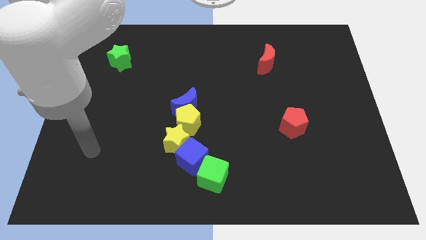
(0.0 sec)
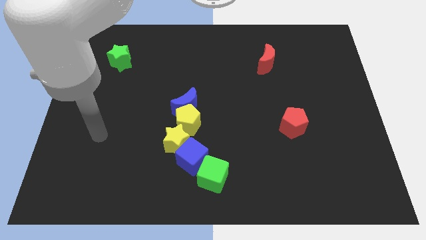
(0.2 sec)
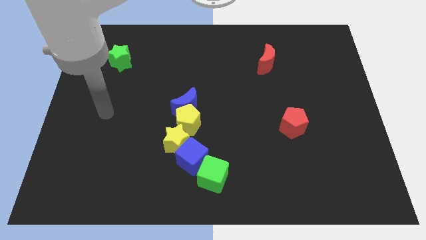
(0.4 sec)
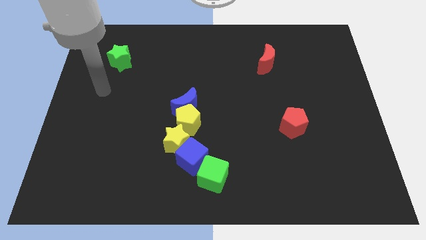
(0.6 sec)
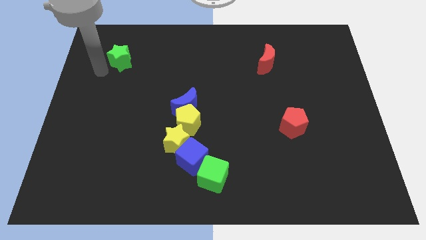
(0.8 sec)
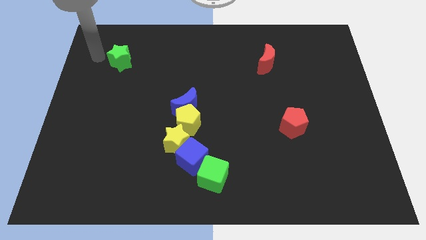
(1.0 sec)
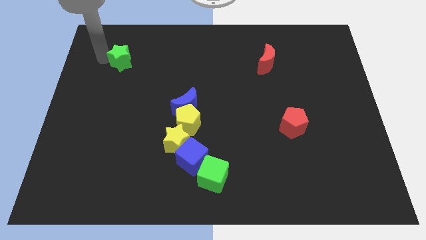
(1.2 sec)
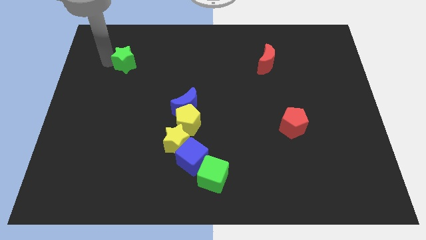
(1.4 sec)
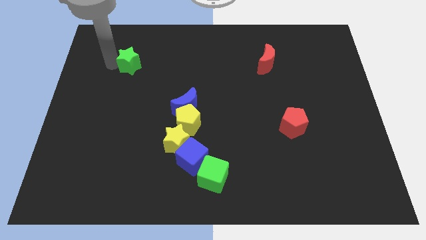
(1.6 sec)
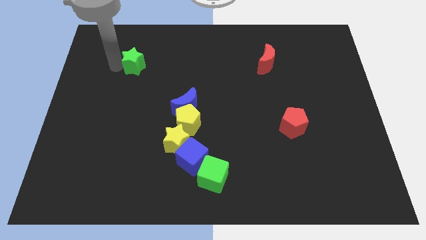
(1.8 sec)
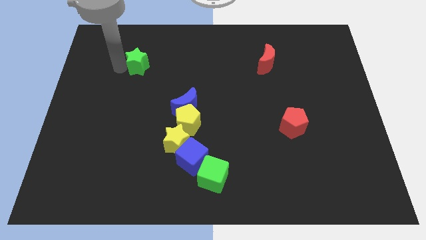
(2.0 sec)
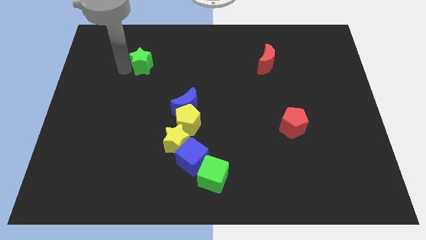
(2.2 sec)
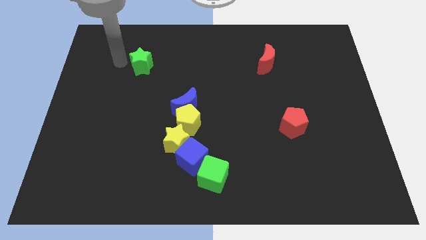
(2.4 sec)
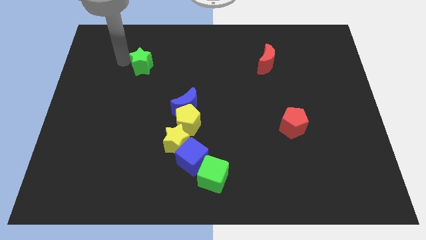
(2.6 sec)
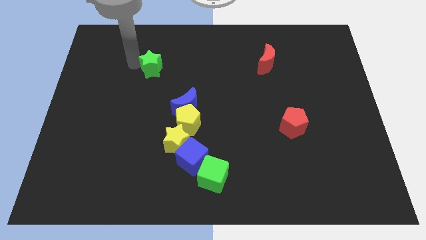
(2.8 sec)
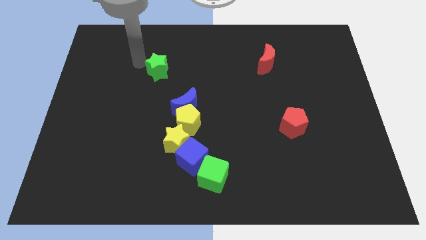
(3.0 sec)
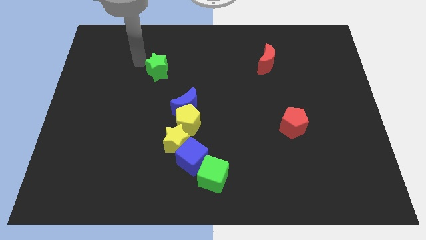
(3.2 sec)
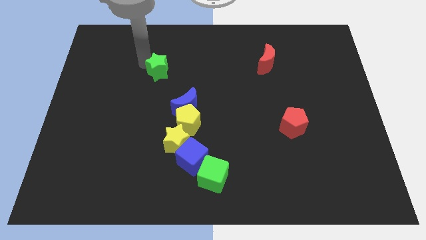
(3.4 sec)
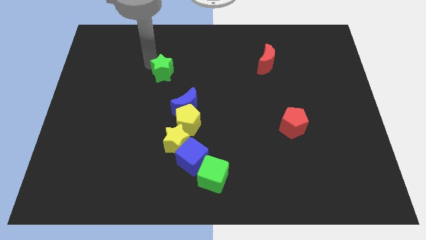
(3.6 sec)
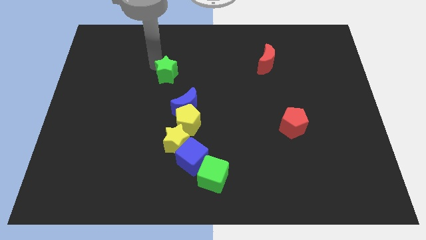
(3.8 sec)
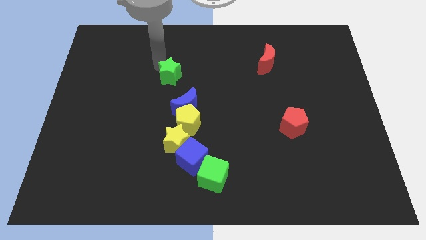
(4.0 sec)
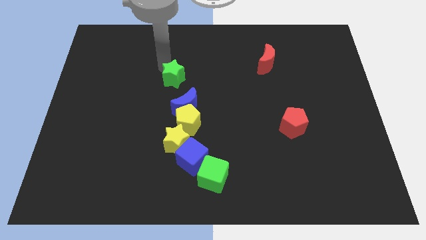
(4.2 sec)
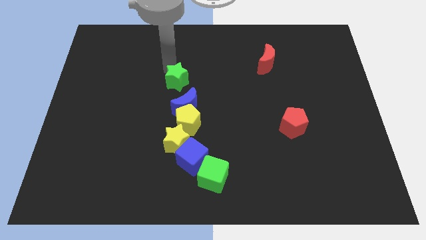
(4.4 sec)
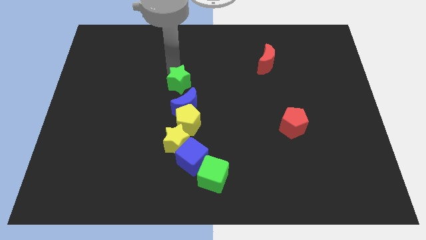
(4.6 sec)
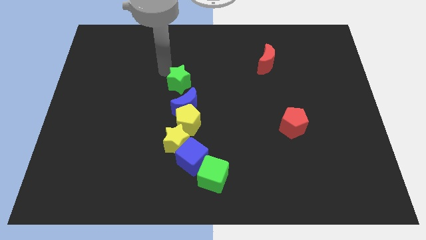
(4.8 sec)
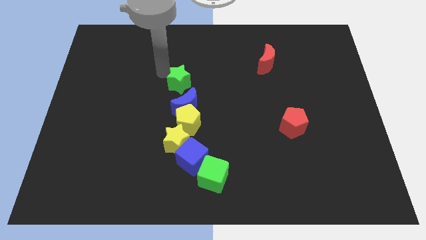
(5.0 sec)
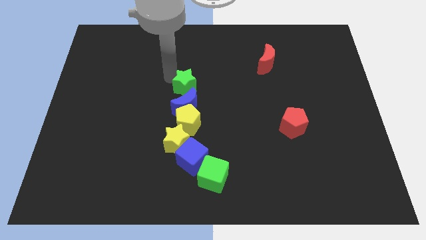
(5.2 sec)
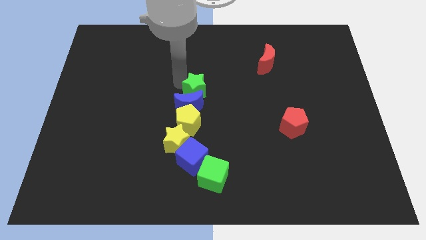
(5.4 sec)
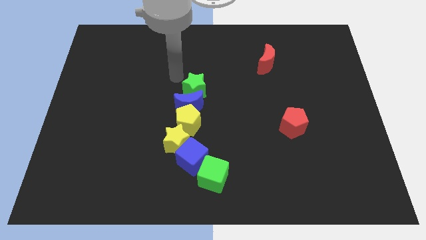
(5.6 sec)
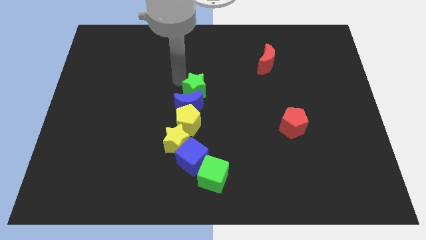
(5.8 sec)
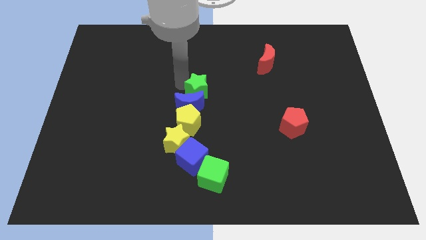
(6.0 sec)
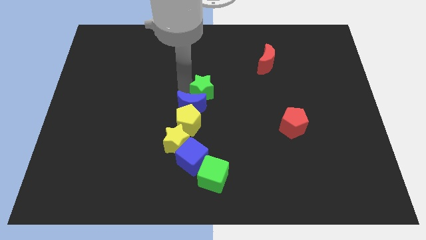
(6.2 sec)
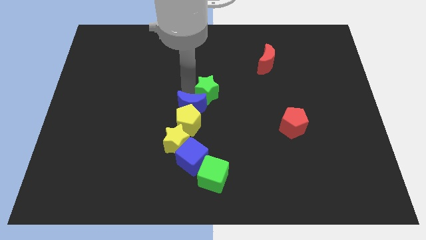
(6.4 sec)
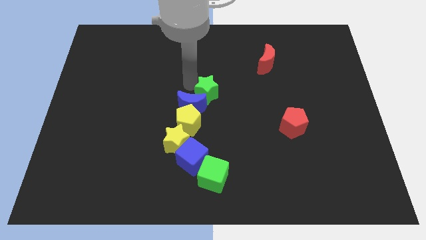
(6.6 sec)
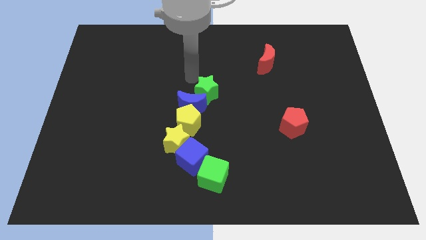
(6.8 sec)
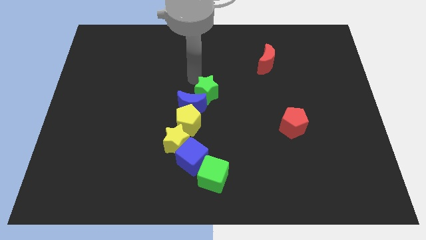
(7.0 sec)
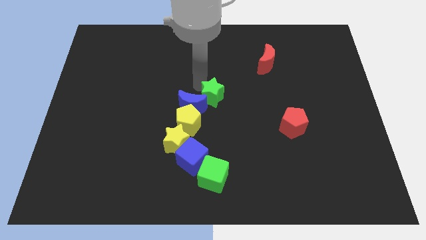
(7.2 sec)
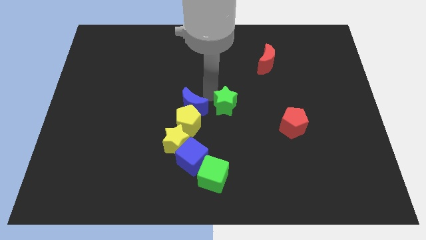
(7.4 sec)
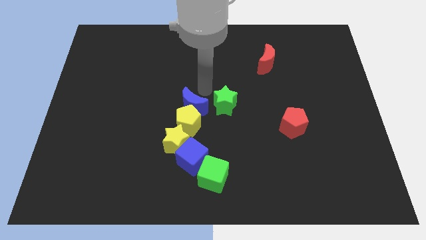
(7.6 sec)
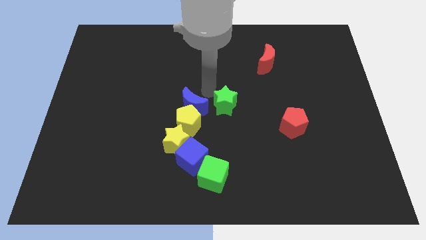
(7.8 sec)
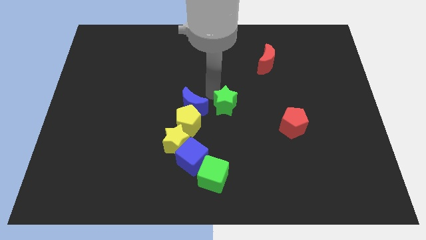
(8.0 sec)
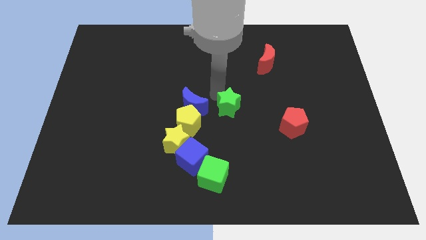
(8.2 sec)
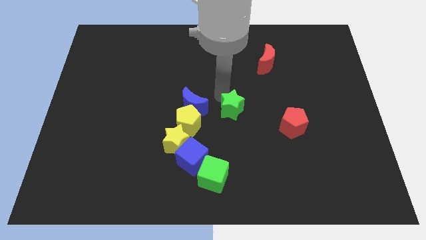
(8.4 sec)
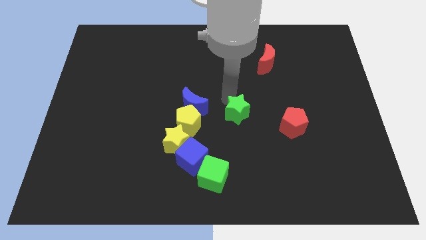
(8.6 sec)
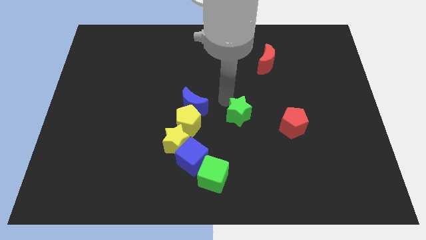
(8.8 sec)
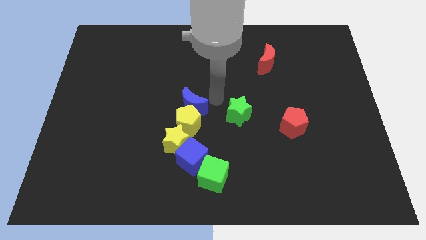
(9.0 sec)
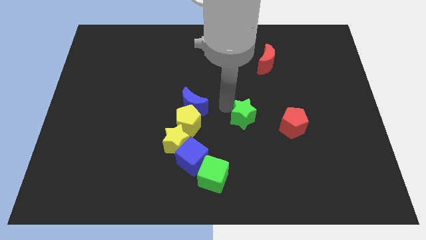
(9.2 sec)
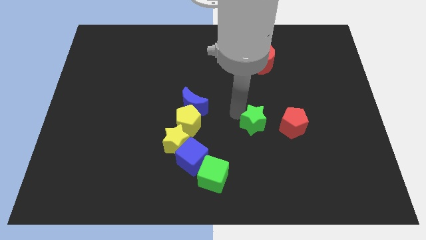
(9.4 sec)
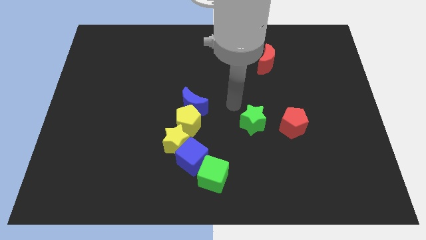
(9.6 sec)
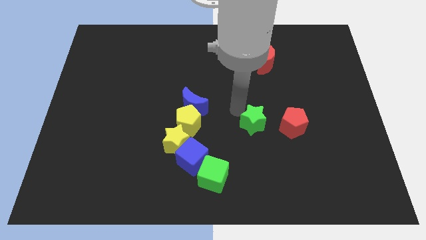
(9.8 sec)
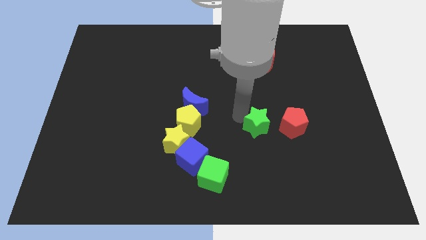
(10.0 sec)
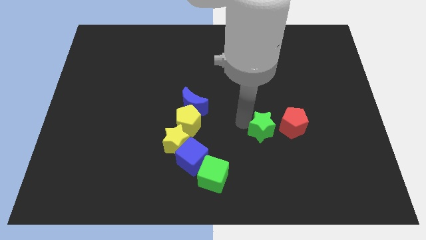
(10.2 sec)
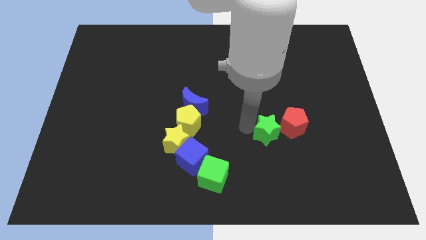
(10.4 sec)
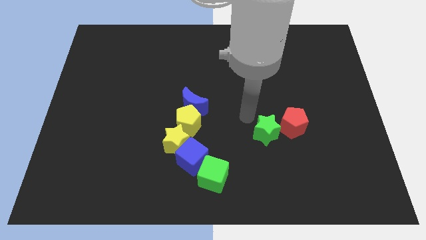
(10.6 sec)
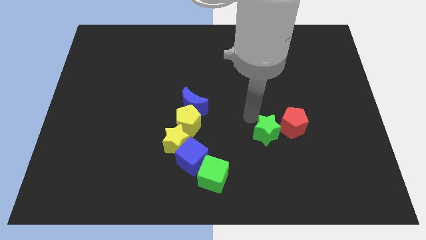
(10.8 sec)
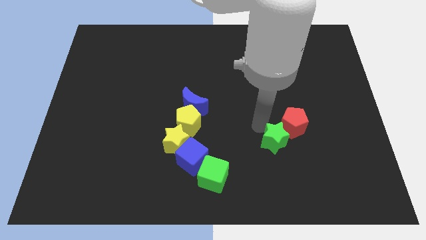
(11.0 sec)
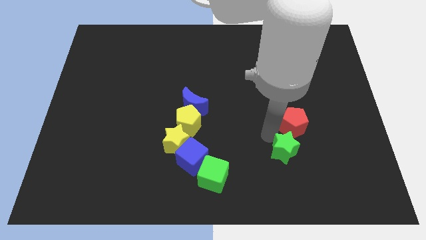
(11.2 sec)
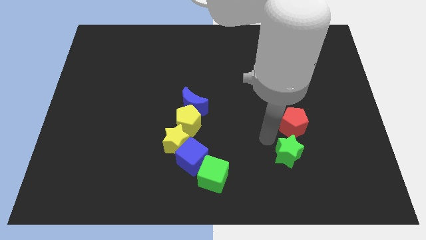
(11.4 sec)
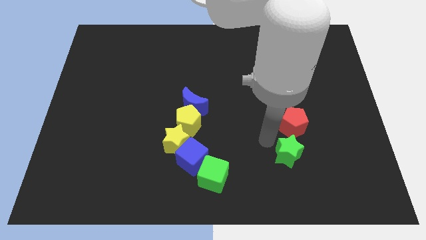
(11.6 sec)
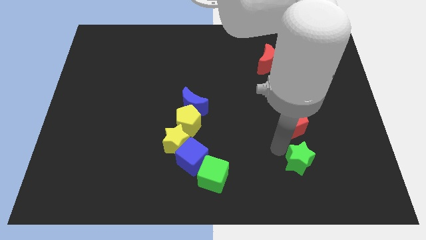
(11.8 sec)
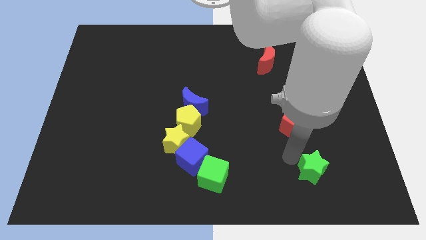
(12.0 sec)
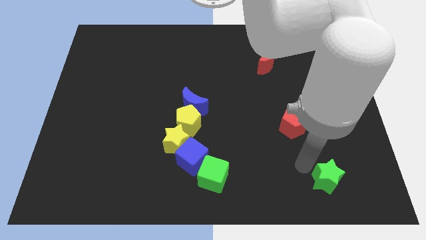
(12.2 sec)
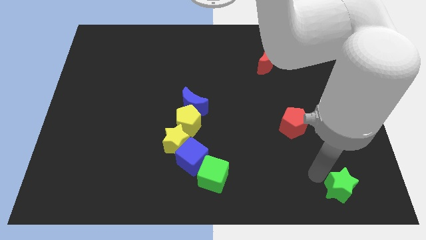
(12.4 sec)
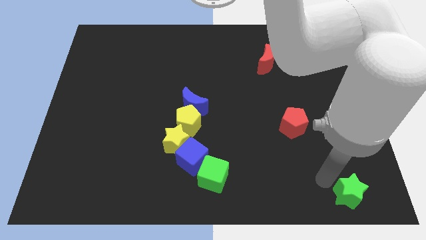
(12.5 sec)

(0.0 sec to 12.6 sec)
slide the green star to the bottom right

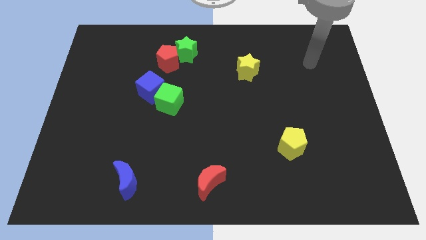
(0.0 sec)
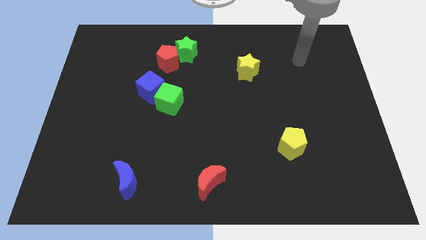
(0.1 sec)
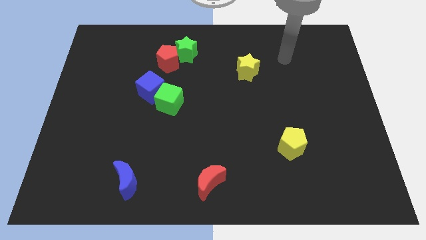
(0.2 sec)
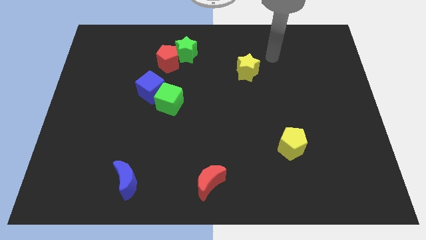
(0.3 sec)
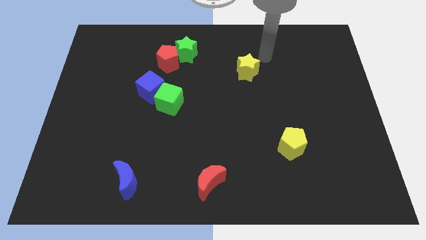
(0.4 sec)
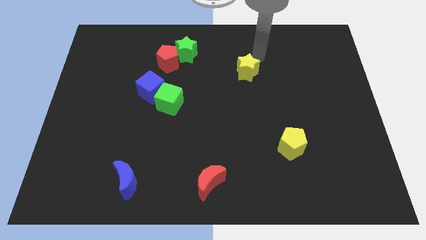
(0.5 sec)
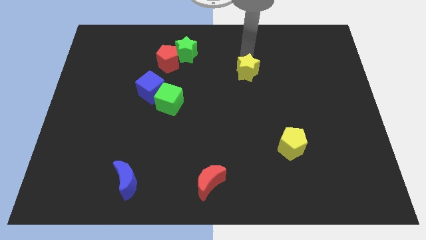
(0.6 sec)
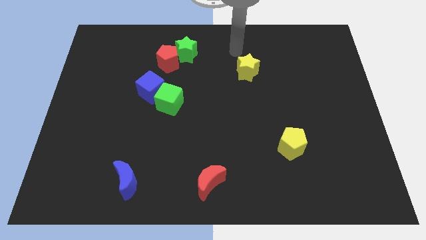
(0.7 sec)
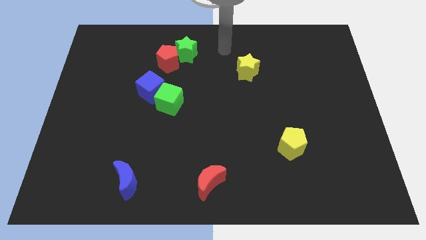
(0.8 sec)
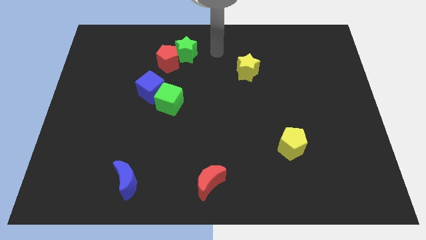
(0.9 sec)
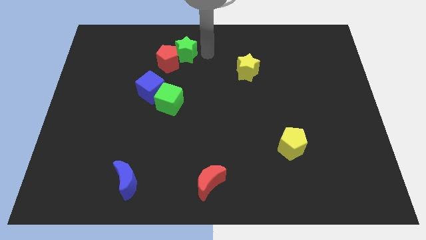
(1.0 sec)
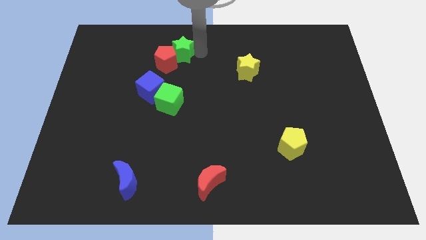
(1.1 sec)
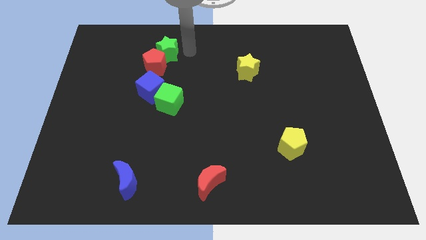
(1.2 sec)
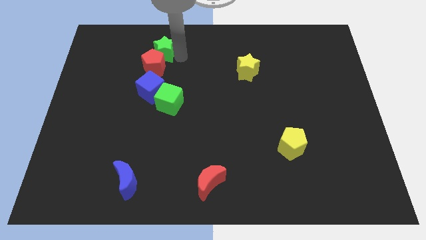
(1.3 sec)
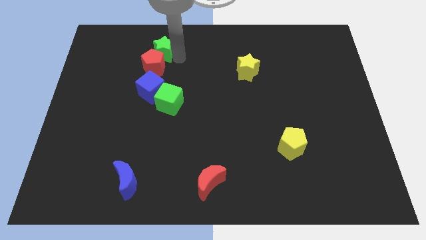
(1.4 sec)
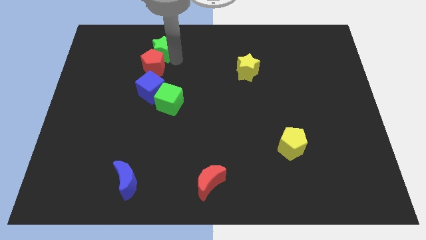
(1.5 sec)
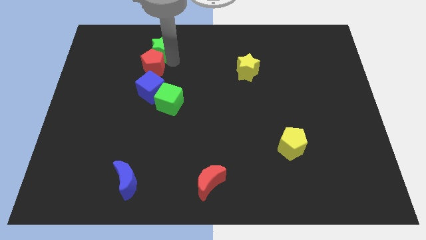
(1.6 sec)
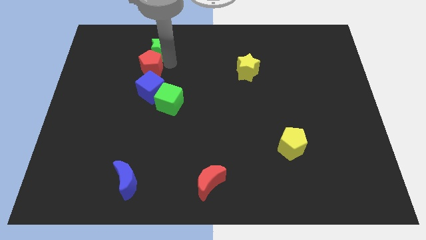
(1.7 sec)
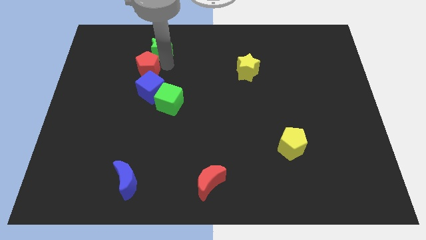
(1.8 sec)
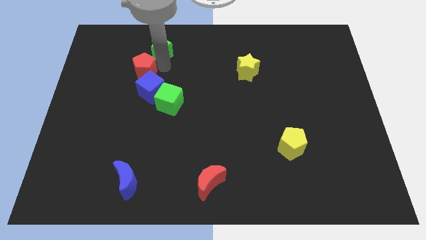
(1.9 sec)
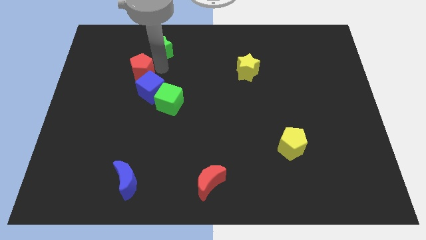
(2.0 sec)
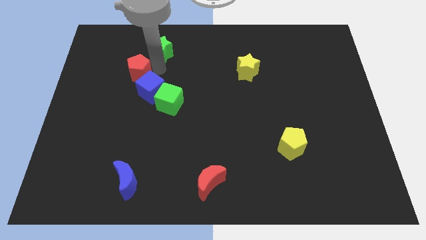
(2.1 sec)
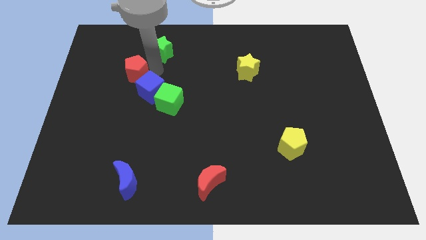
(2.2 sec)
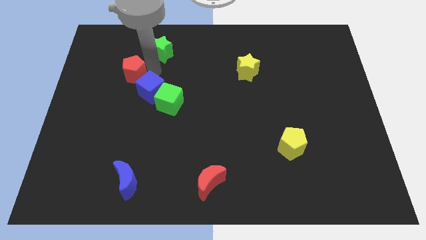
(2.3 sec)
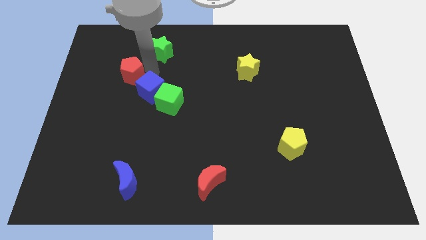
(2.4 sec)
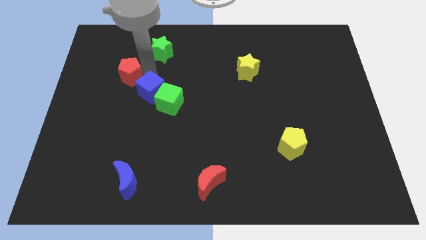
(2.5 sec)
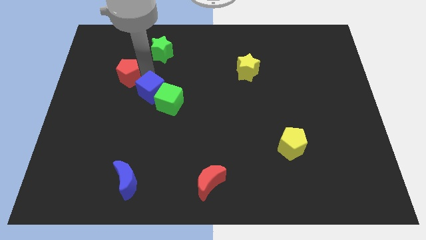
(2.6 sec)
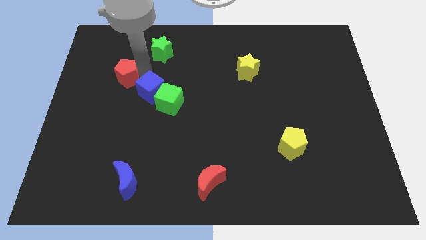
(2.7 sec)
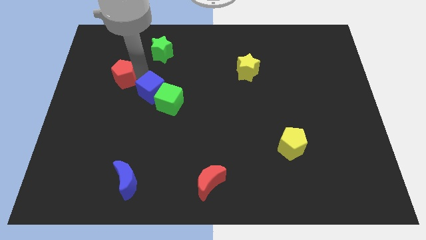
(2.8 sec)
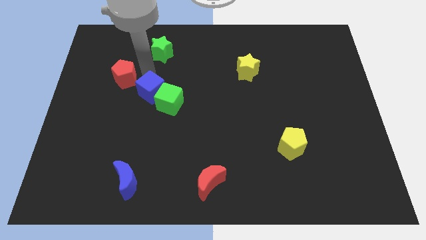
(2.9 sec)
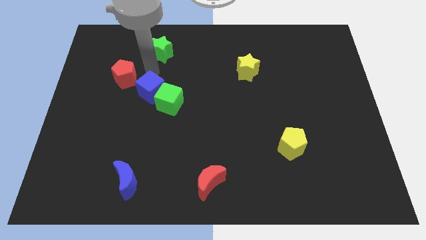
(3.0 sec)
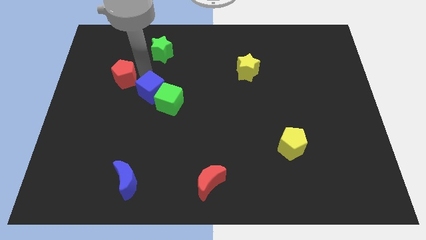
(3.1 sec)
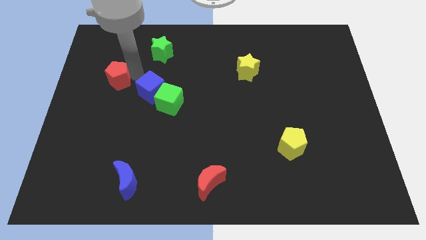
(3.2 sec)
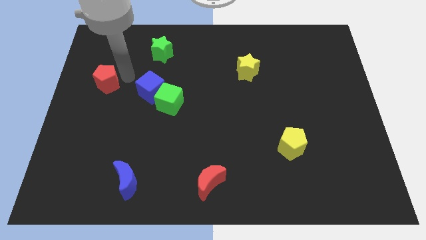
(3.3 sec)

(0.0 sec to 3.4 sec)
put the red pentagon to the left side of the board
